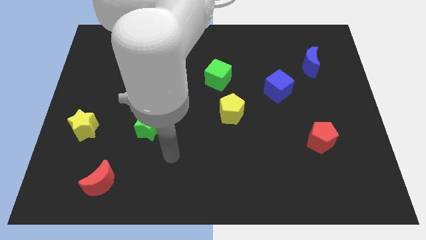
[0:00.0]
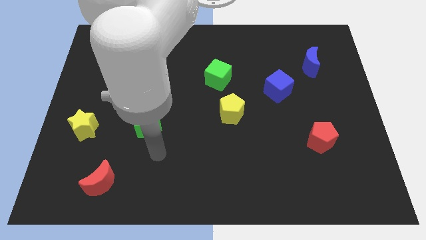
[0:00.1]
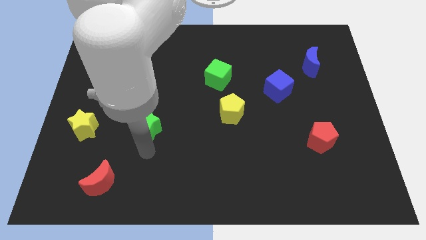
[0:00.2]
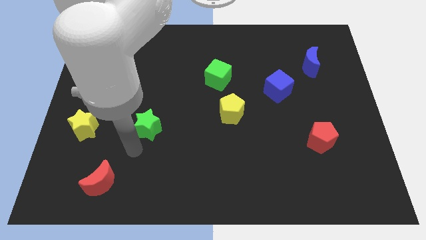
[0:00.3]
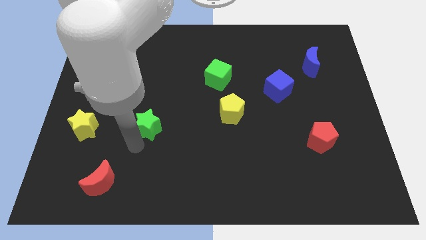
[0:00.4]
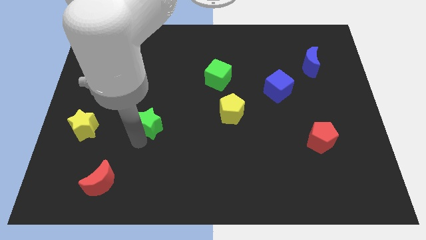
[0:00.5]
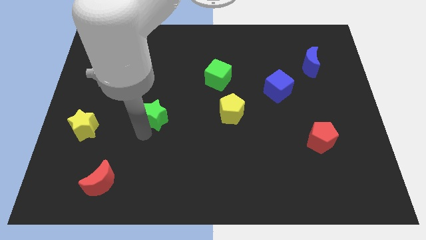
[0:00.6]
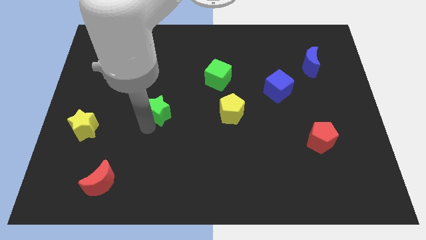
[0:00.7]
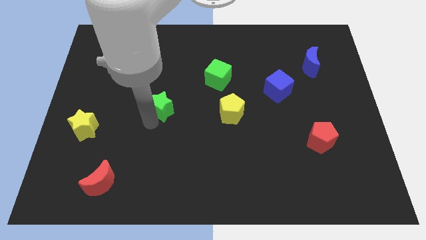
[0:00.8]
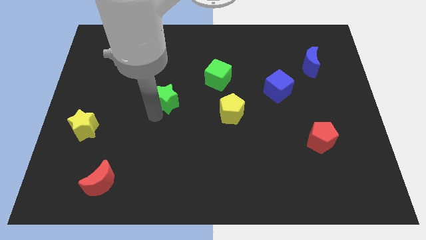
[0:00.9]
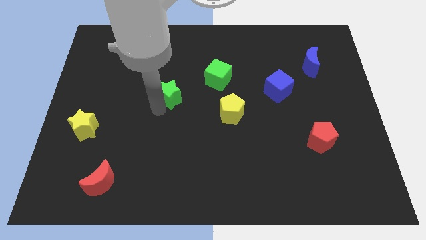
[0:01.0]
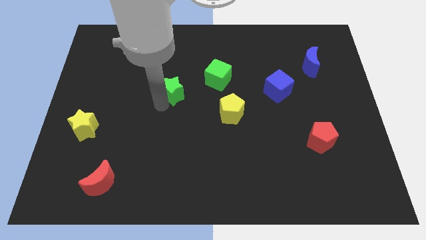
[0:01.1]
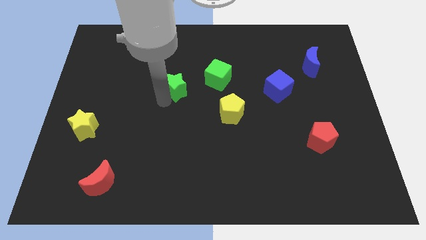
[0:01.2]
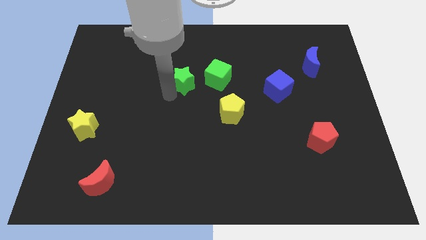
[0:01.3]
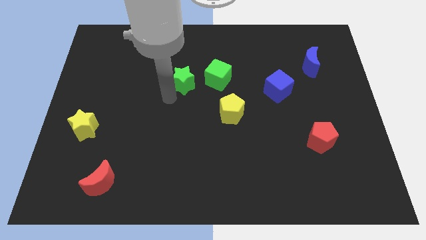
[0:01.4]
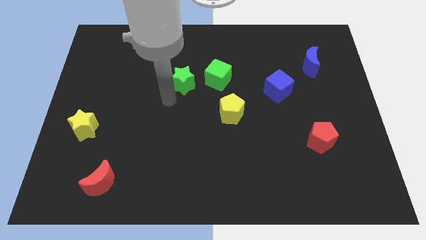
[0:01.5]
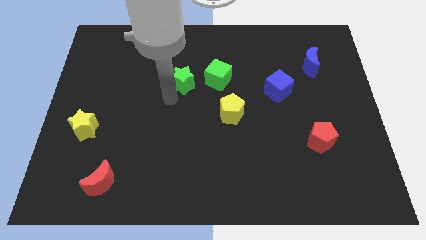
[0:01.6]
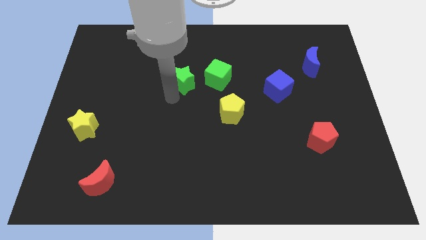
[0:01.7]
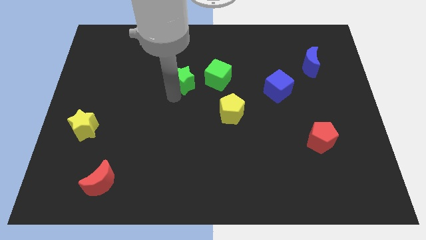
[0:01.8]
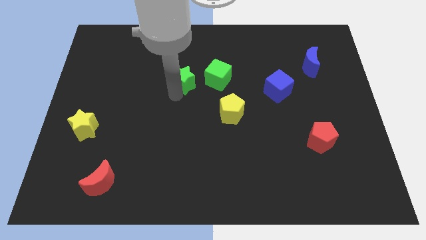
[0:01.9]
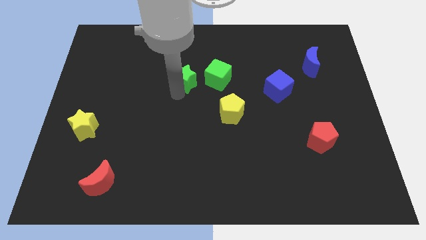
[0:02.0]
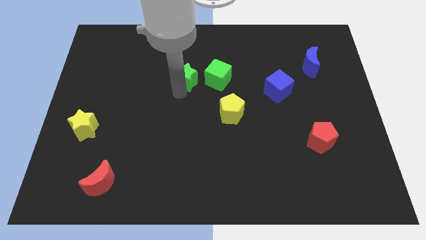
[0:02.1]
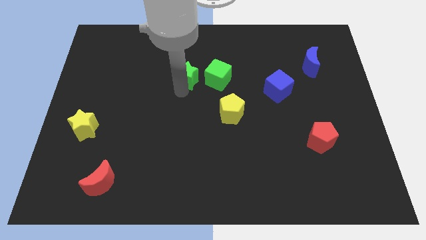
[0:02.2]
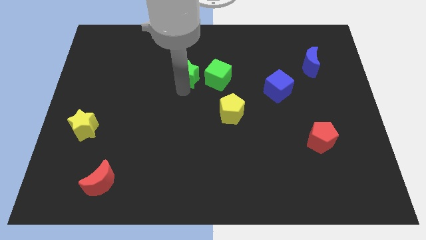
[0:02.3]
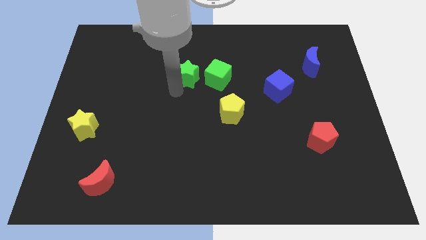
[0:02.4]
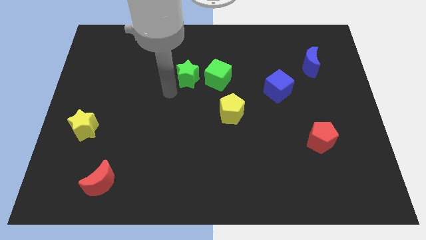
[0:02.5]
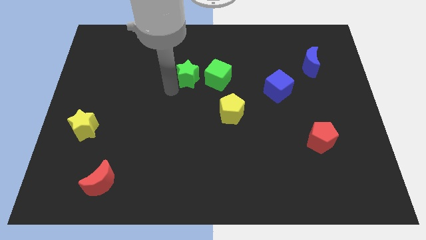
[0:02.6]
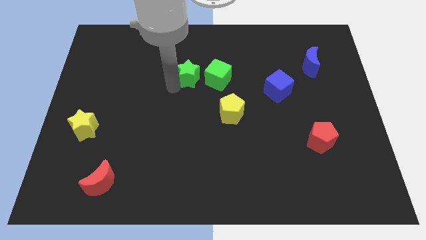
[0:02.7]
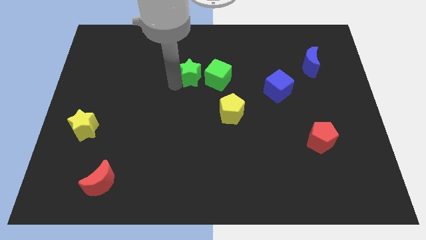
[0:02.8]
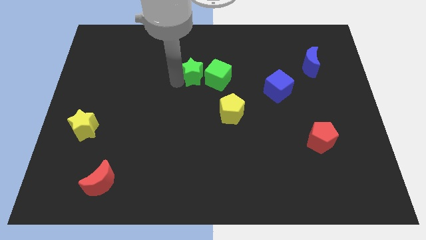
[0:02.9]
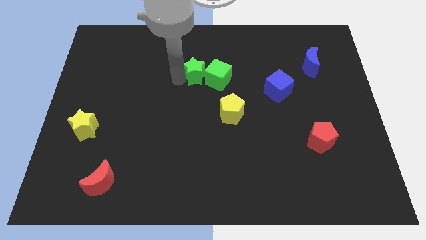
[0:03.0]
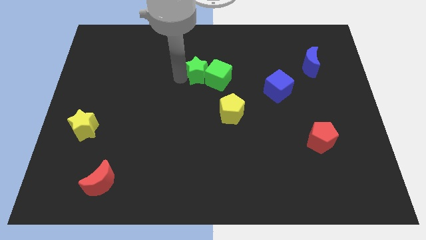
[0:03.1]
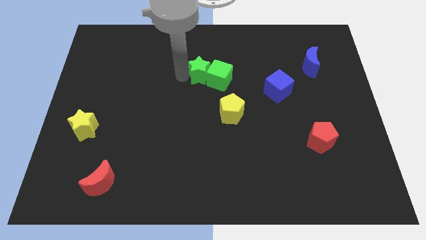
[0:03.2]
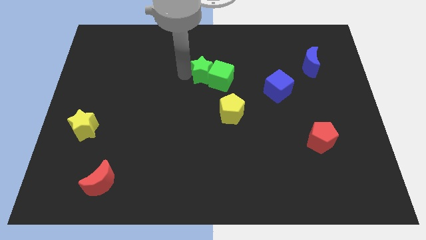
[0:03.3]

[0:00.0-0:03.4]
slide the green star up and right diagonally

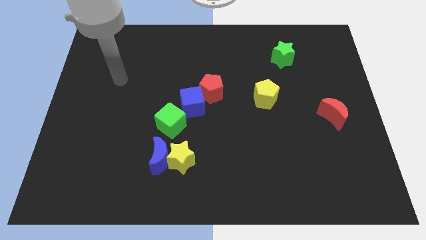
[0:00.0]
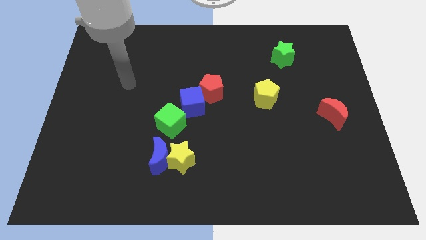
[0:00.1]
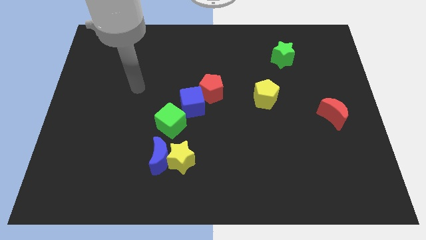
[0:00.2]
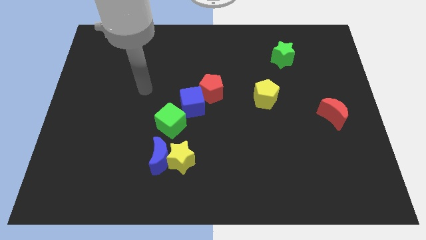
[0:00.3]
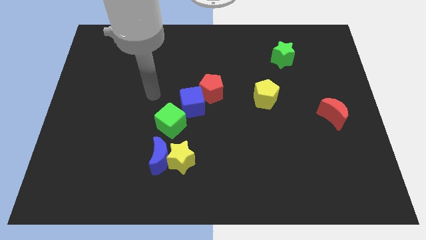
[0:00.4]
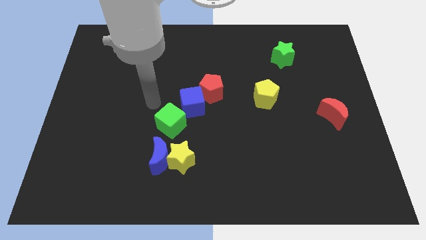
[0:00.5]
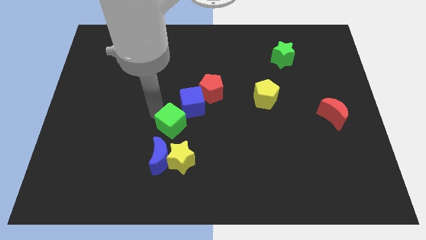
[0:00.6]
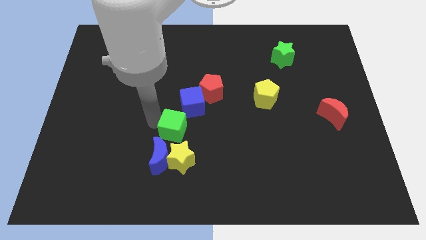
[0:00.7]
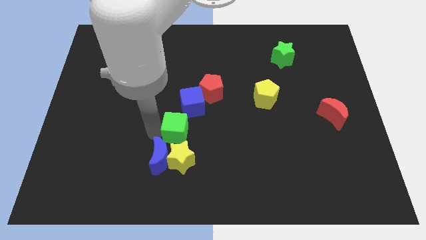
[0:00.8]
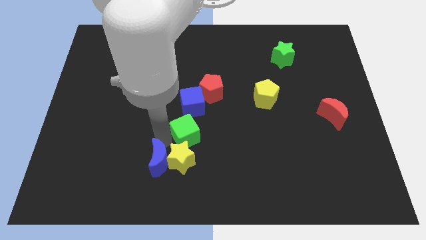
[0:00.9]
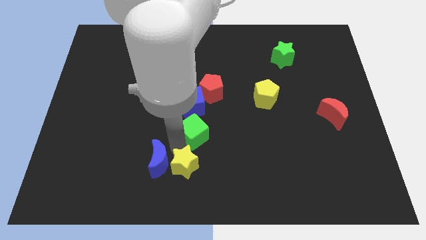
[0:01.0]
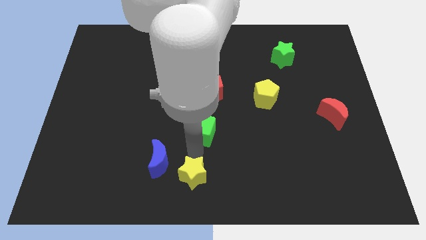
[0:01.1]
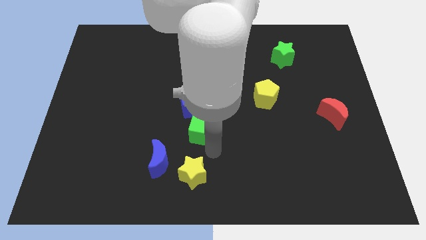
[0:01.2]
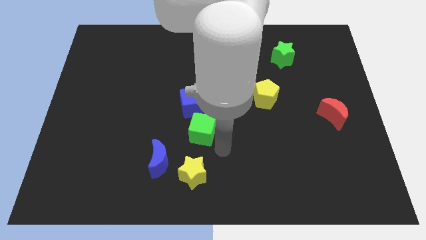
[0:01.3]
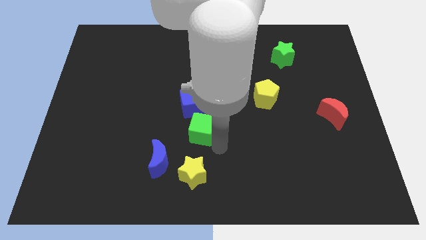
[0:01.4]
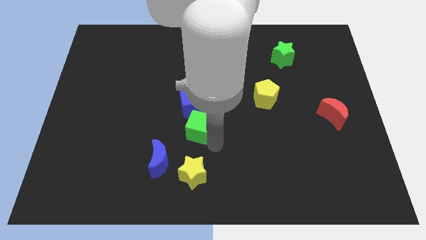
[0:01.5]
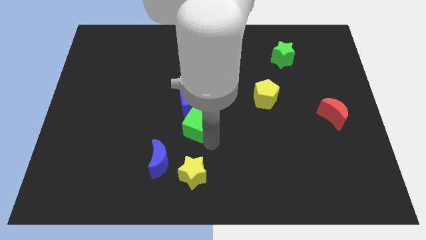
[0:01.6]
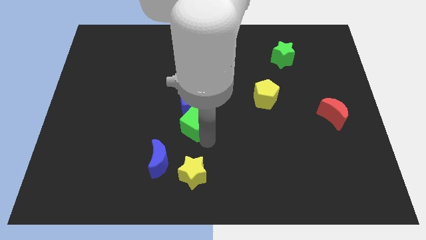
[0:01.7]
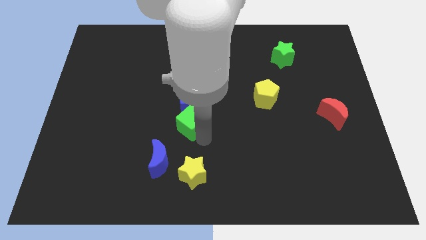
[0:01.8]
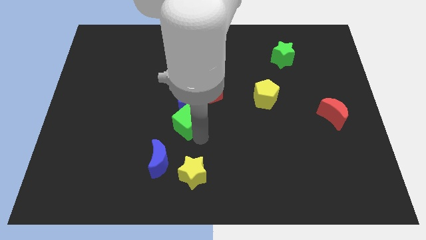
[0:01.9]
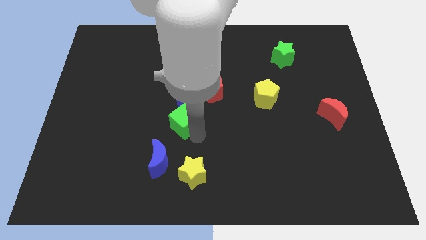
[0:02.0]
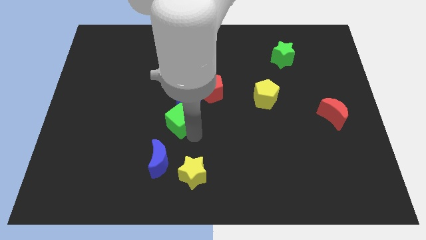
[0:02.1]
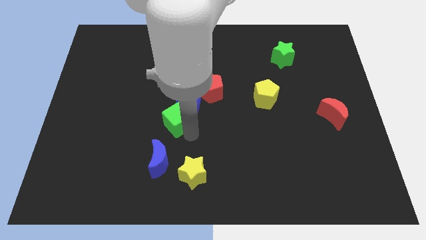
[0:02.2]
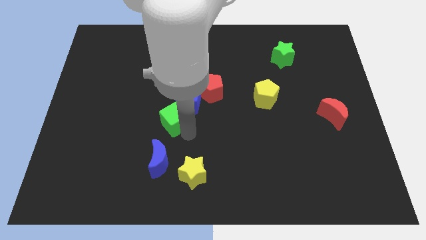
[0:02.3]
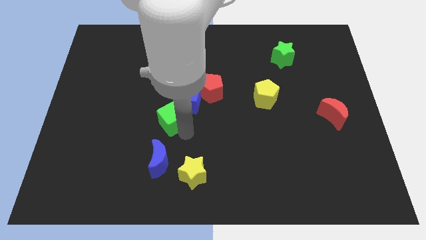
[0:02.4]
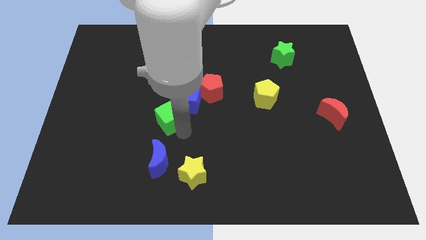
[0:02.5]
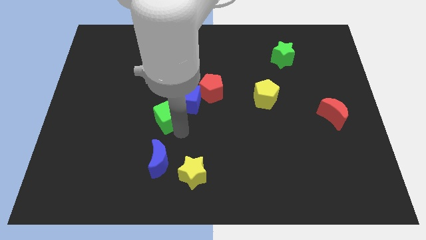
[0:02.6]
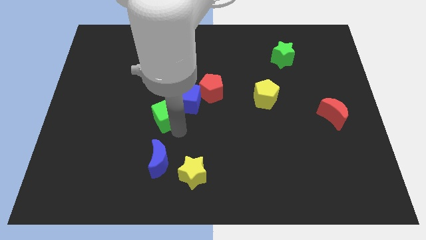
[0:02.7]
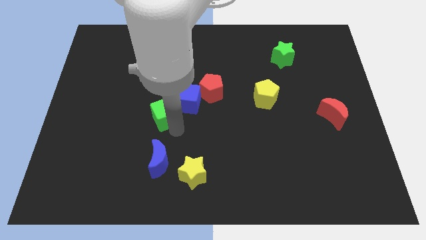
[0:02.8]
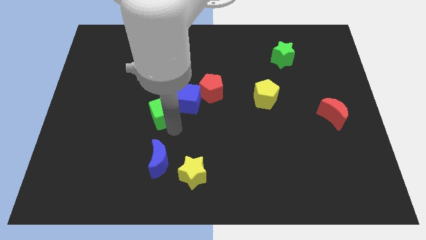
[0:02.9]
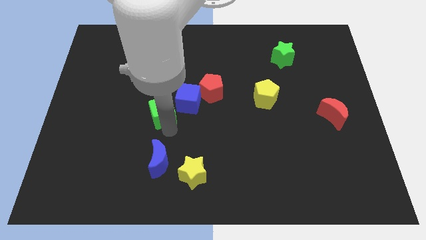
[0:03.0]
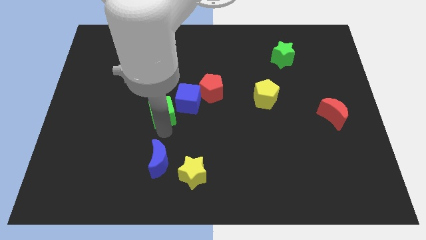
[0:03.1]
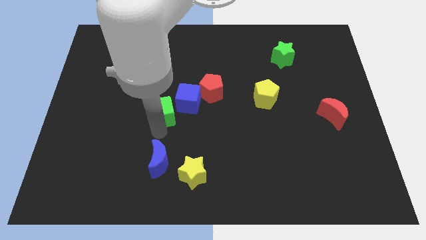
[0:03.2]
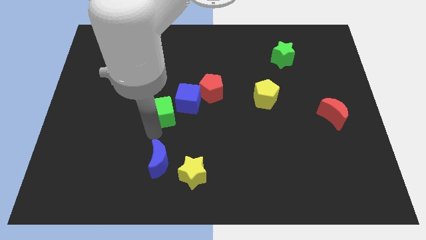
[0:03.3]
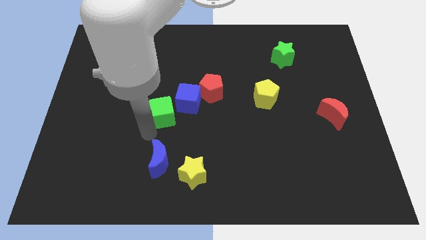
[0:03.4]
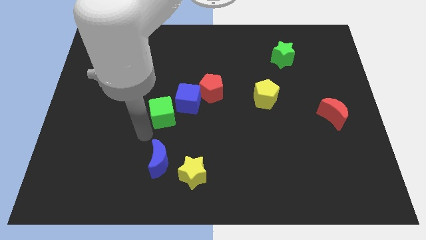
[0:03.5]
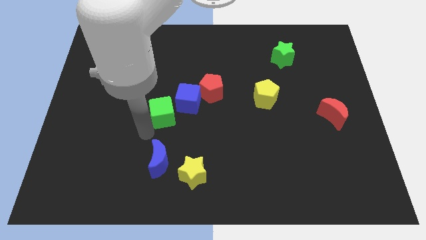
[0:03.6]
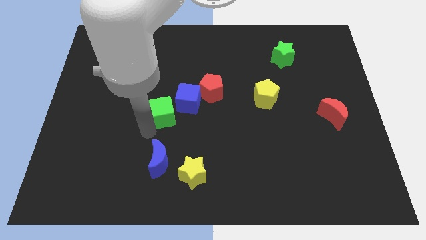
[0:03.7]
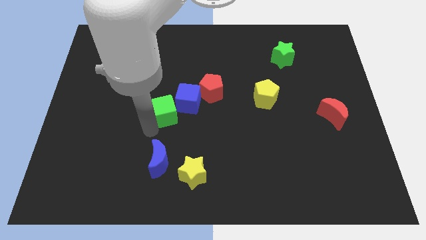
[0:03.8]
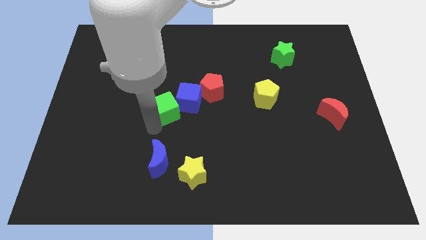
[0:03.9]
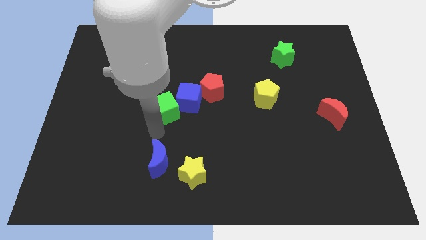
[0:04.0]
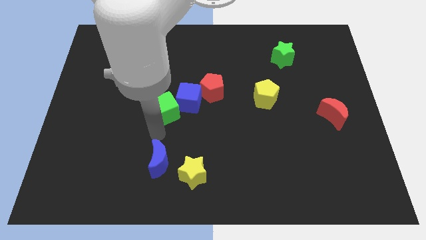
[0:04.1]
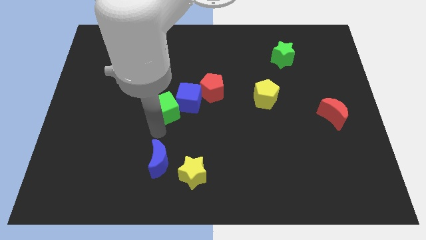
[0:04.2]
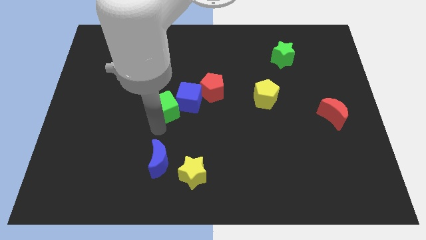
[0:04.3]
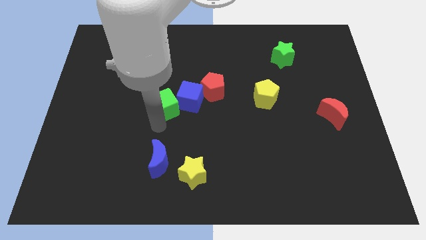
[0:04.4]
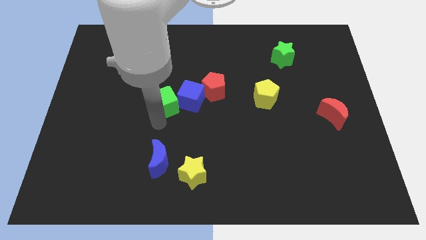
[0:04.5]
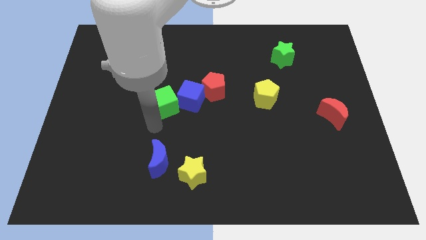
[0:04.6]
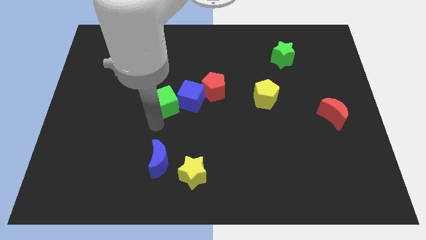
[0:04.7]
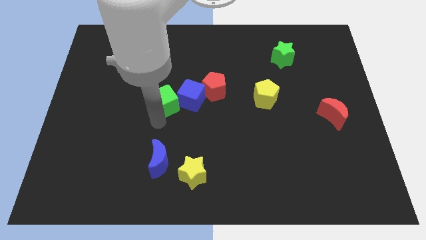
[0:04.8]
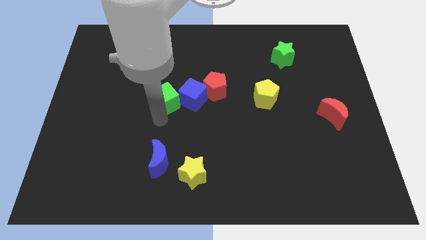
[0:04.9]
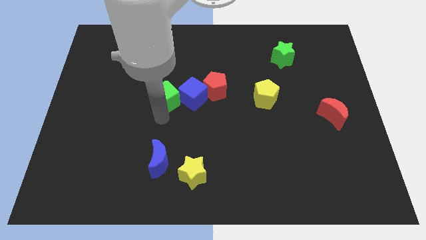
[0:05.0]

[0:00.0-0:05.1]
slide the green cube a little bit upwards

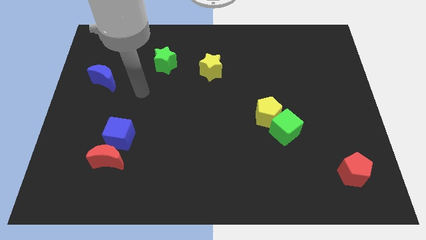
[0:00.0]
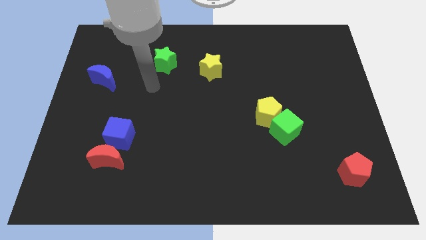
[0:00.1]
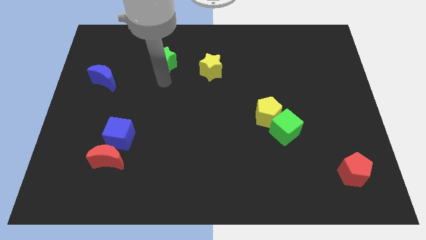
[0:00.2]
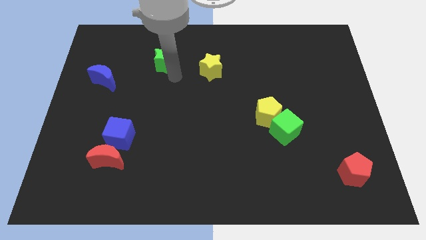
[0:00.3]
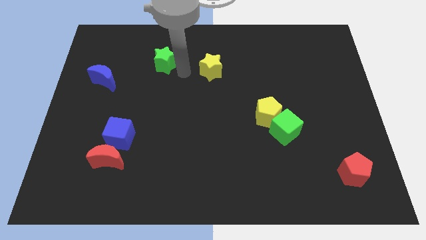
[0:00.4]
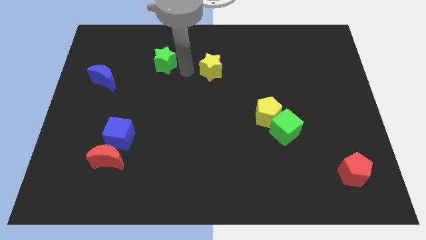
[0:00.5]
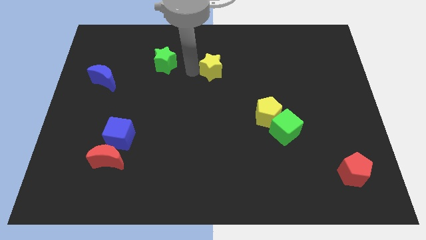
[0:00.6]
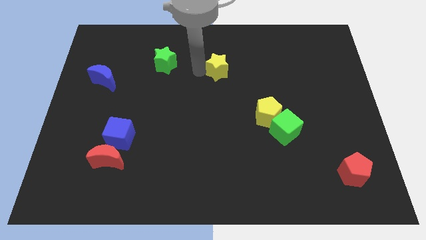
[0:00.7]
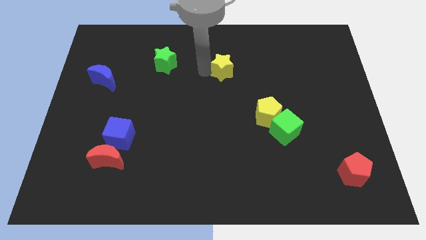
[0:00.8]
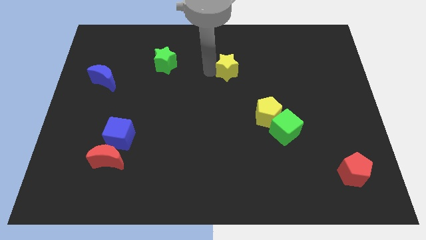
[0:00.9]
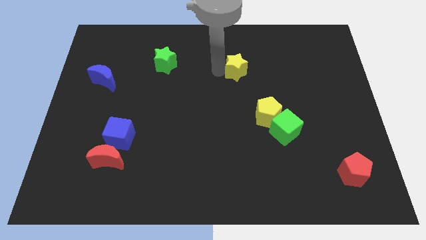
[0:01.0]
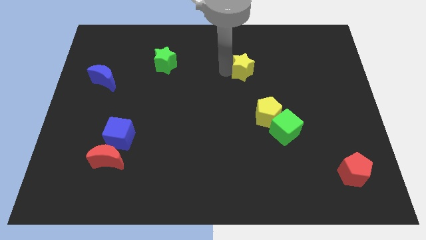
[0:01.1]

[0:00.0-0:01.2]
slide the yellow star right slightly
